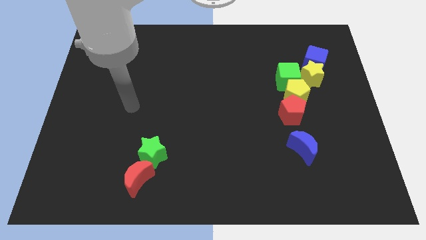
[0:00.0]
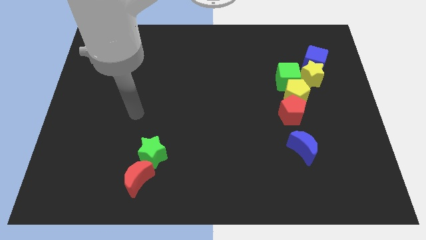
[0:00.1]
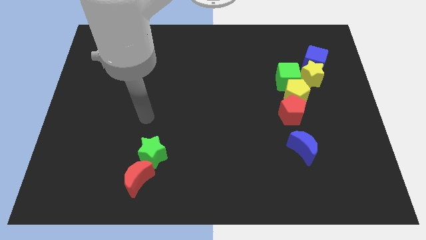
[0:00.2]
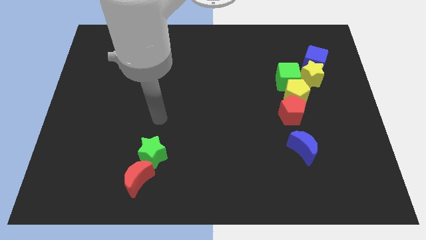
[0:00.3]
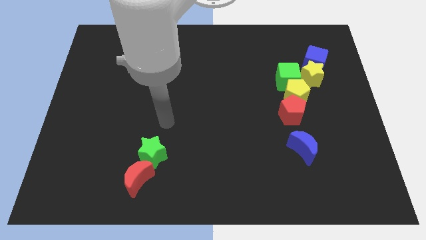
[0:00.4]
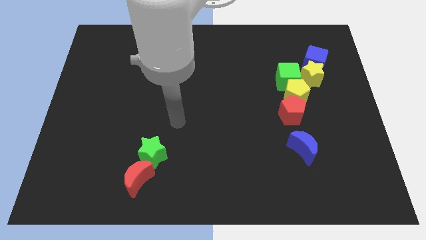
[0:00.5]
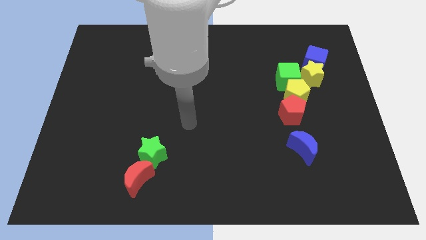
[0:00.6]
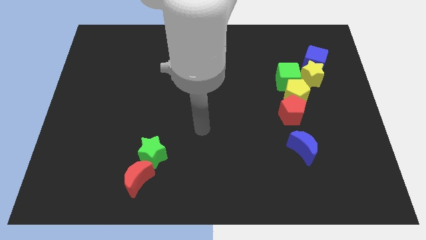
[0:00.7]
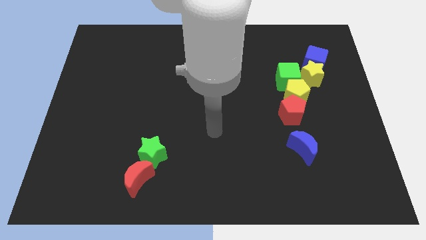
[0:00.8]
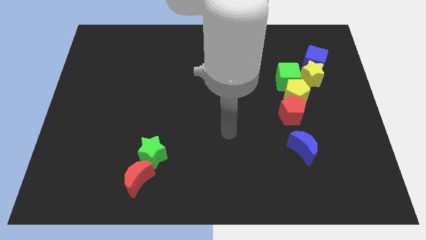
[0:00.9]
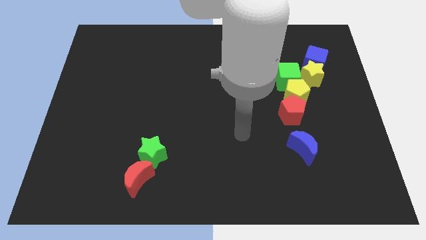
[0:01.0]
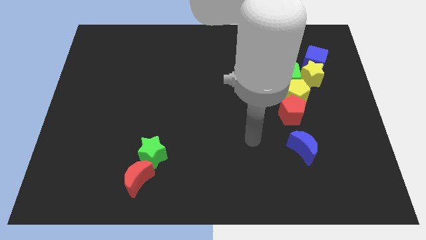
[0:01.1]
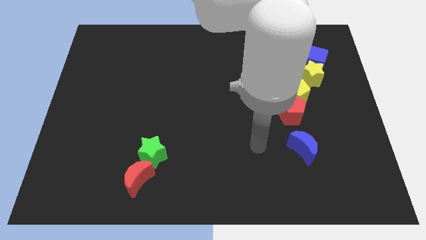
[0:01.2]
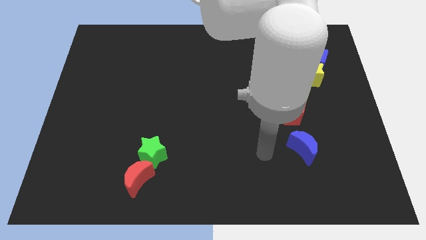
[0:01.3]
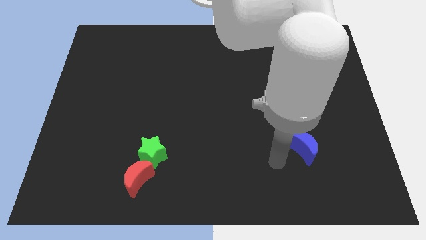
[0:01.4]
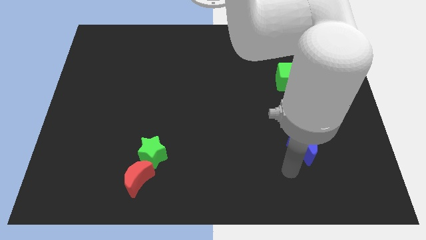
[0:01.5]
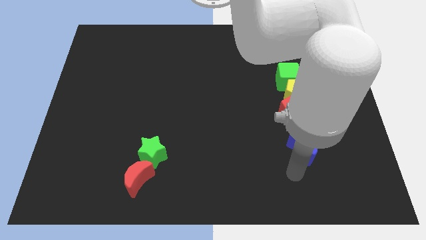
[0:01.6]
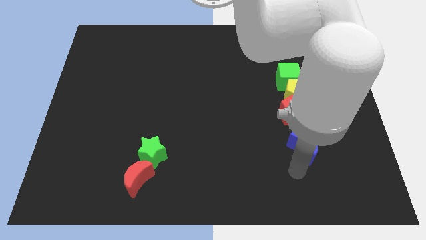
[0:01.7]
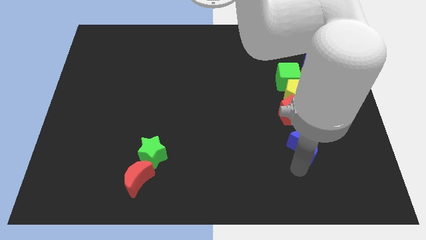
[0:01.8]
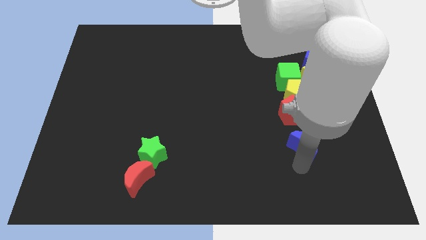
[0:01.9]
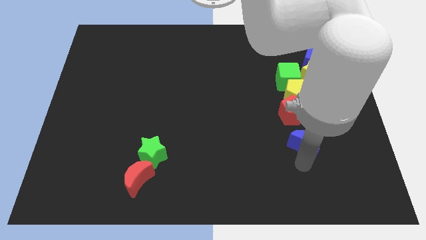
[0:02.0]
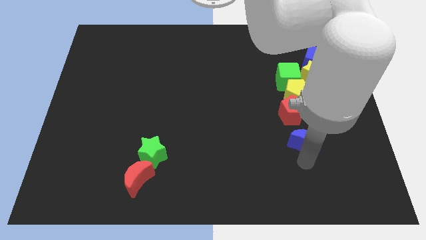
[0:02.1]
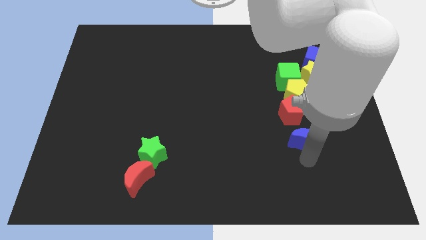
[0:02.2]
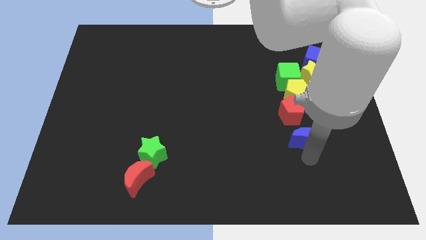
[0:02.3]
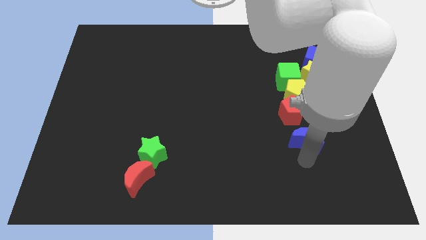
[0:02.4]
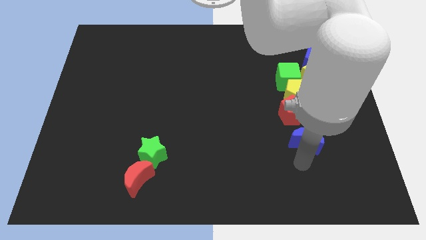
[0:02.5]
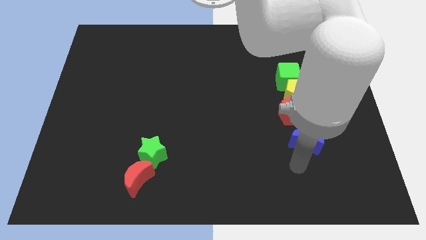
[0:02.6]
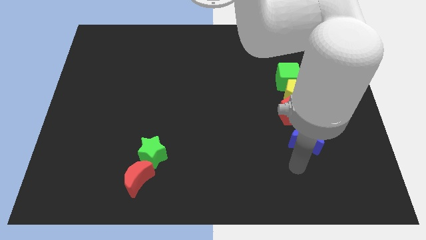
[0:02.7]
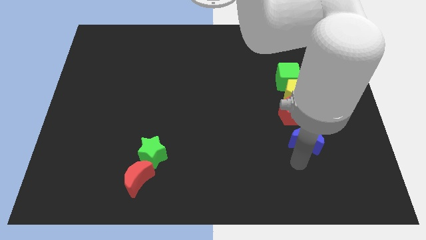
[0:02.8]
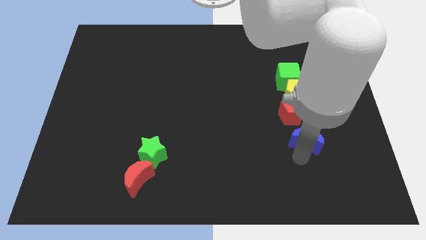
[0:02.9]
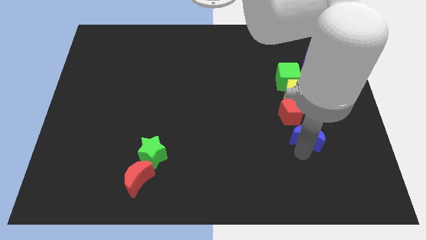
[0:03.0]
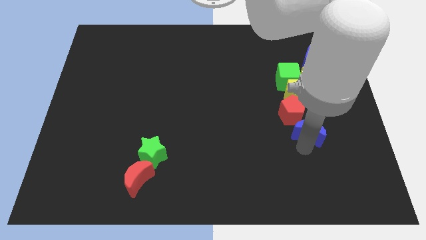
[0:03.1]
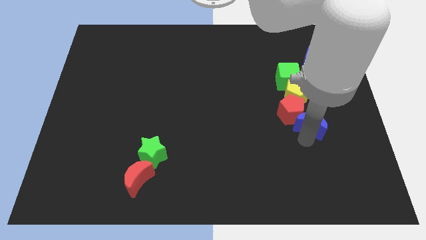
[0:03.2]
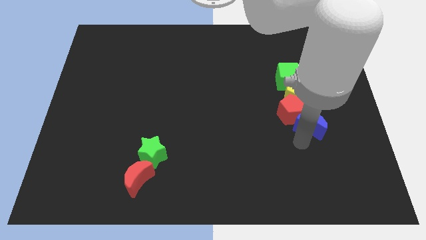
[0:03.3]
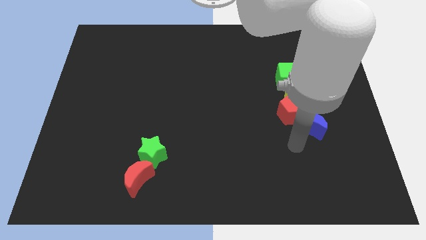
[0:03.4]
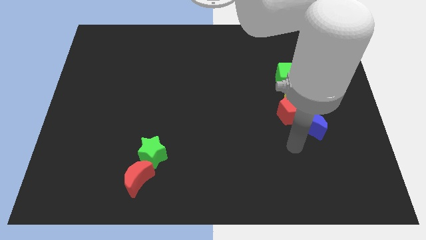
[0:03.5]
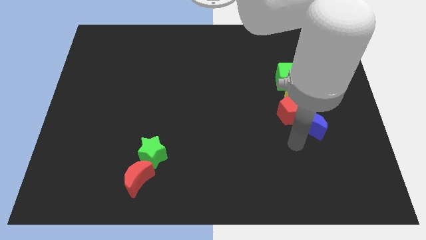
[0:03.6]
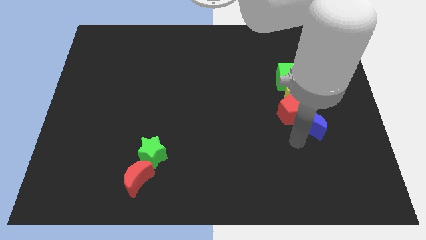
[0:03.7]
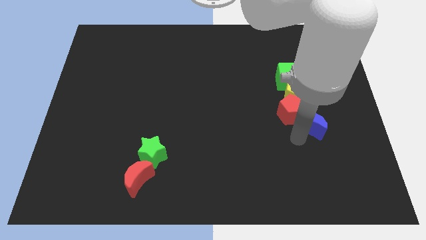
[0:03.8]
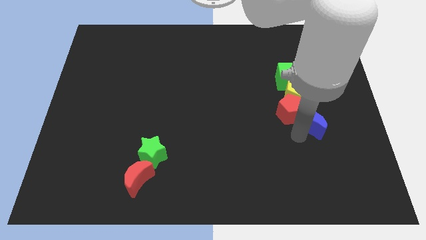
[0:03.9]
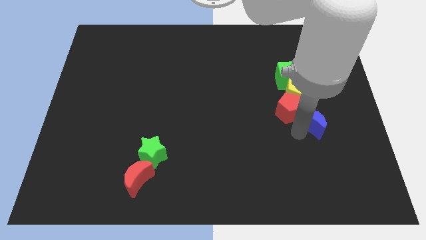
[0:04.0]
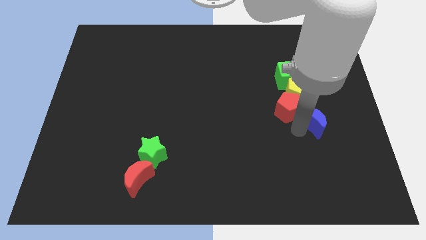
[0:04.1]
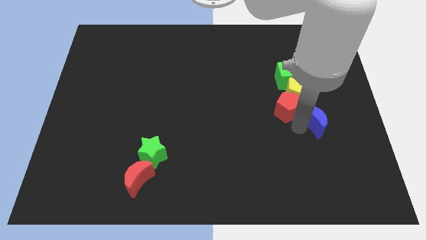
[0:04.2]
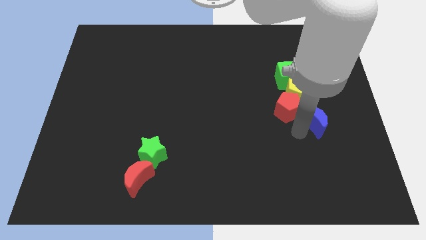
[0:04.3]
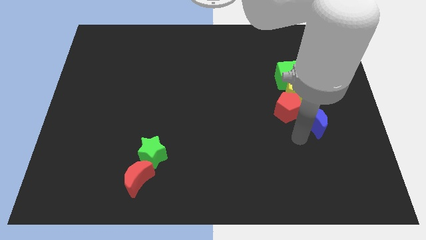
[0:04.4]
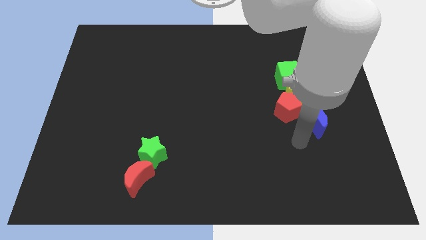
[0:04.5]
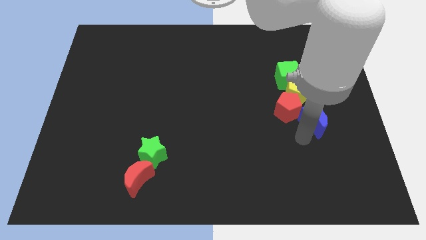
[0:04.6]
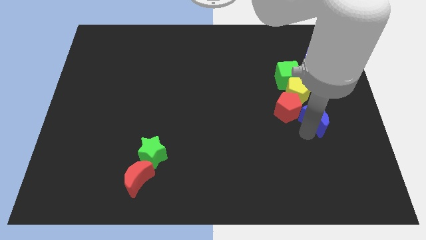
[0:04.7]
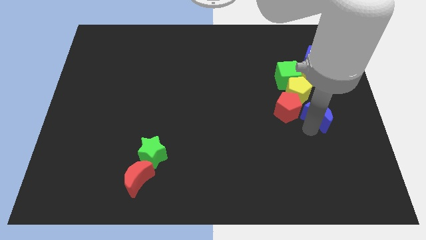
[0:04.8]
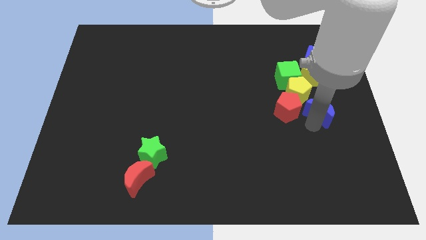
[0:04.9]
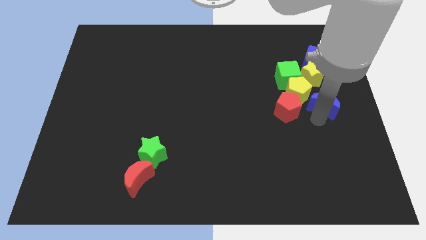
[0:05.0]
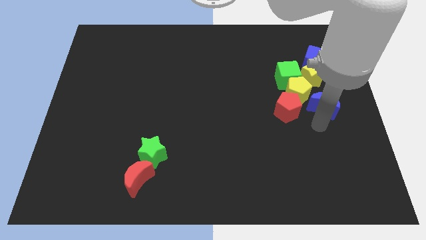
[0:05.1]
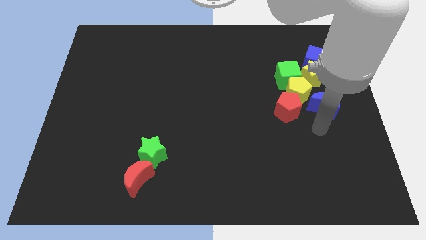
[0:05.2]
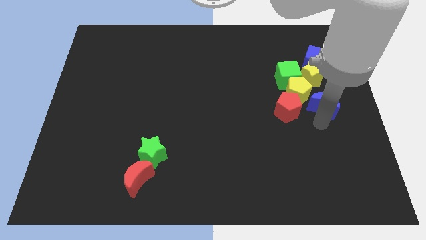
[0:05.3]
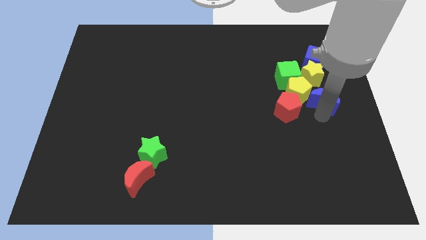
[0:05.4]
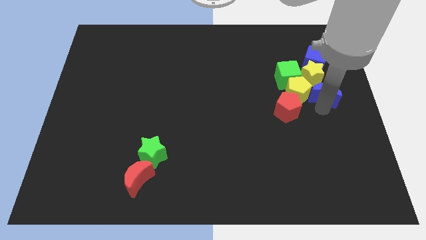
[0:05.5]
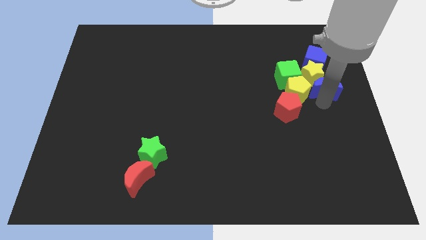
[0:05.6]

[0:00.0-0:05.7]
push the blue moon right of the green cube

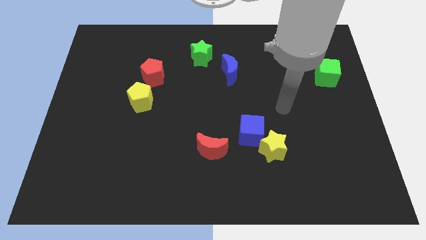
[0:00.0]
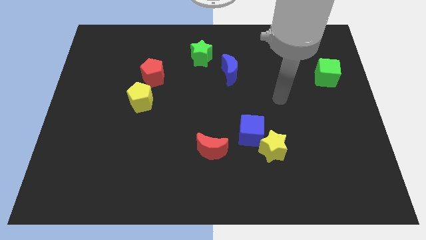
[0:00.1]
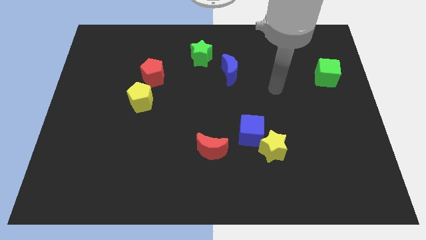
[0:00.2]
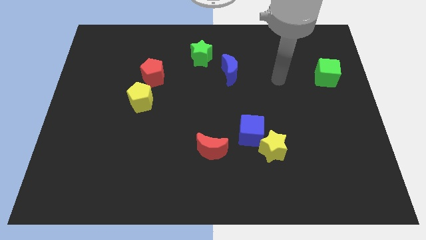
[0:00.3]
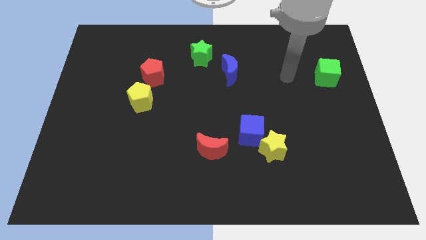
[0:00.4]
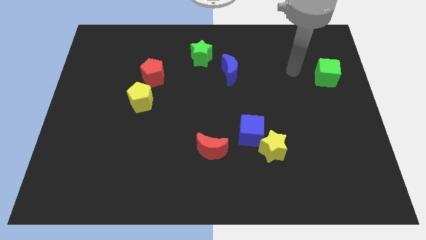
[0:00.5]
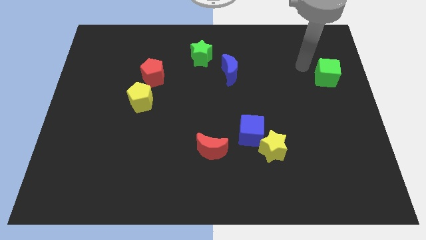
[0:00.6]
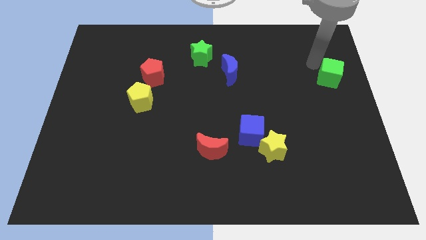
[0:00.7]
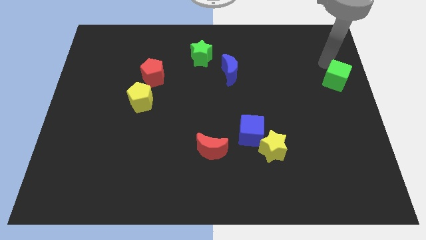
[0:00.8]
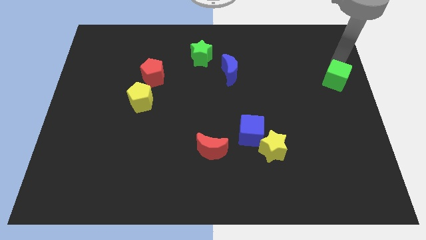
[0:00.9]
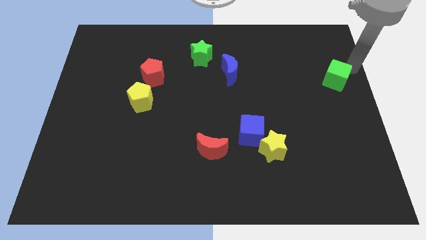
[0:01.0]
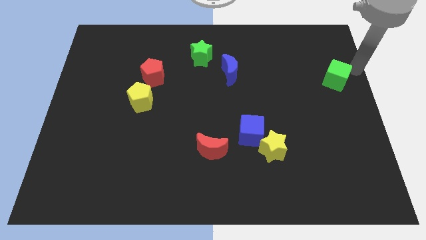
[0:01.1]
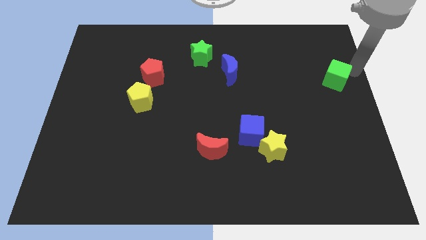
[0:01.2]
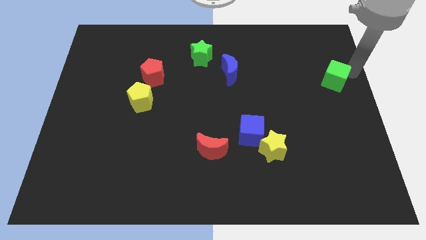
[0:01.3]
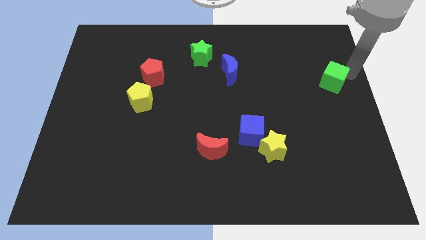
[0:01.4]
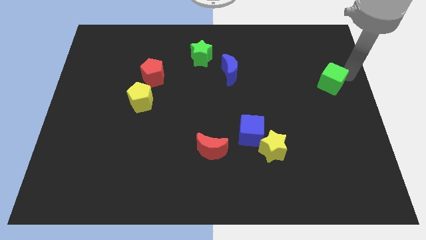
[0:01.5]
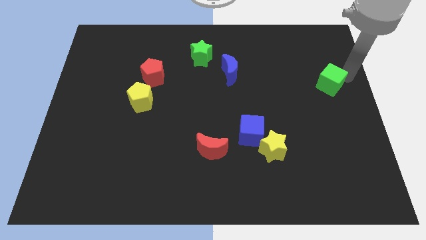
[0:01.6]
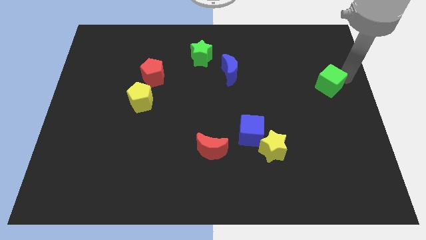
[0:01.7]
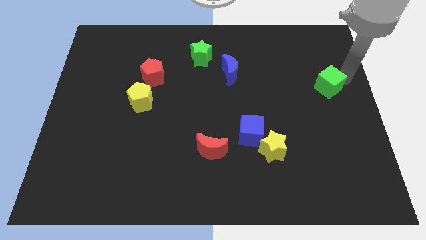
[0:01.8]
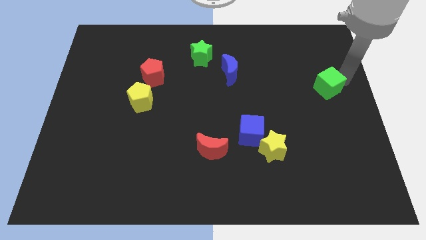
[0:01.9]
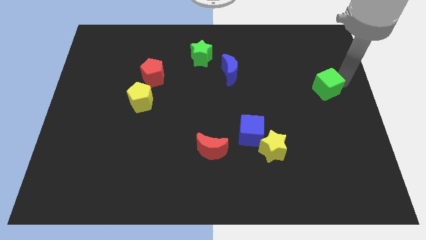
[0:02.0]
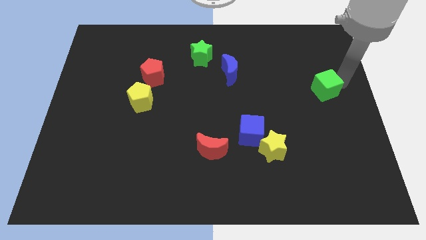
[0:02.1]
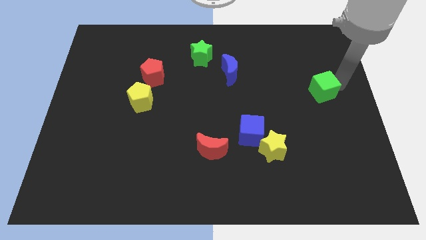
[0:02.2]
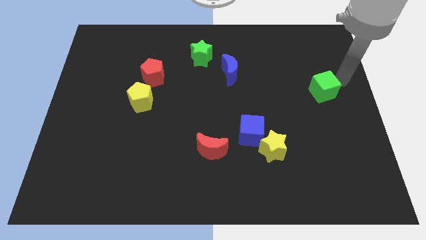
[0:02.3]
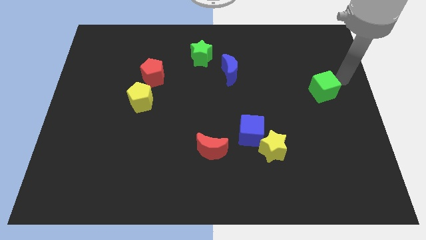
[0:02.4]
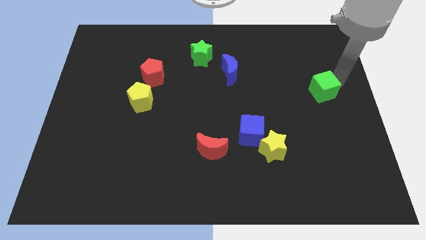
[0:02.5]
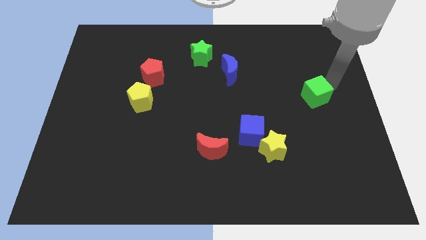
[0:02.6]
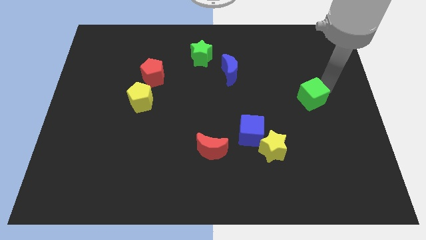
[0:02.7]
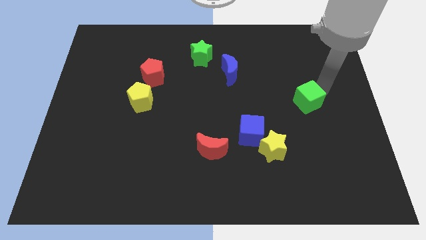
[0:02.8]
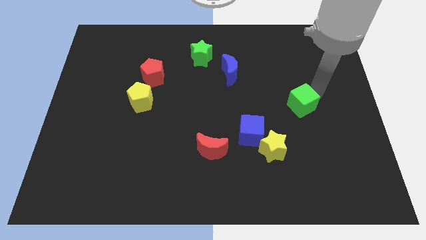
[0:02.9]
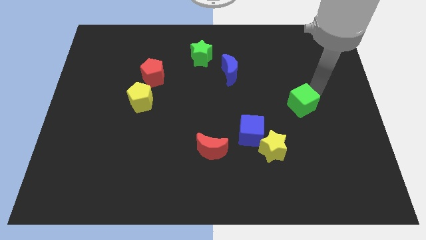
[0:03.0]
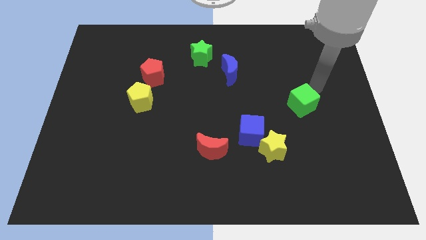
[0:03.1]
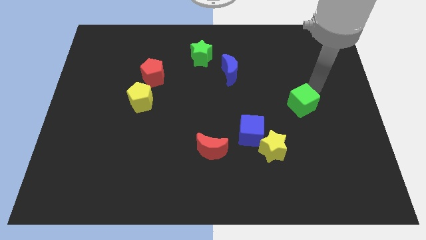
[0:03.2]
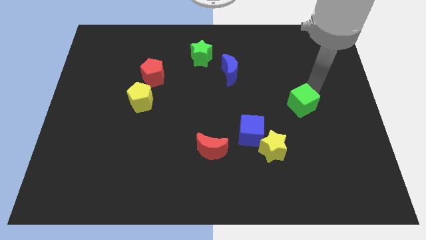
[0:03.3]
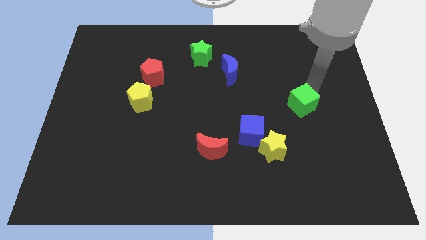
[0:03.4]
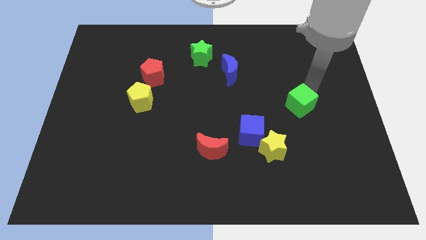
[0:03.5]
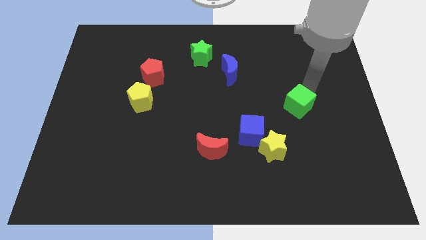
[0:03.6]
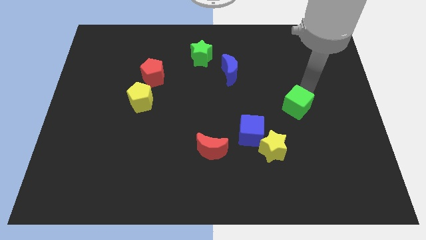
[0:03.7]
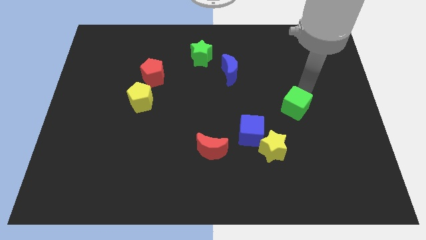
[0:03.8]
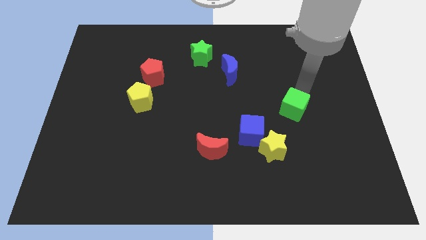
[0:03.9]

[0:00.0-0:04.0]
move the green cube diagonally up and to the right of the blue cube
